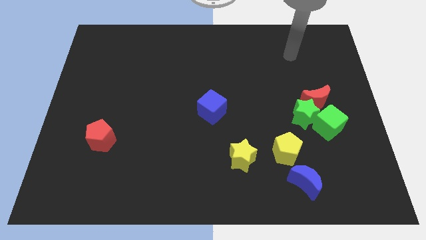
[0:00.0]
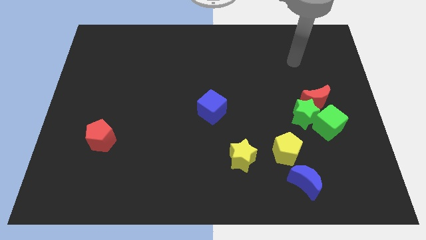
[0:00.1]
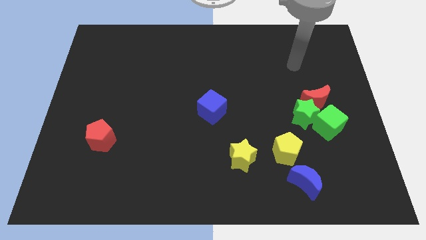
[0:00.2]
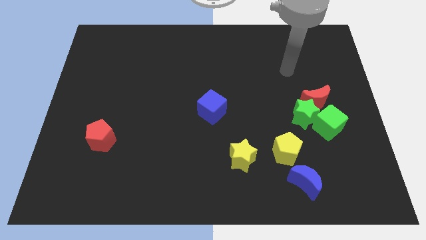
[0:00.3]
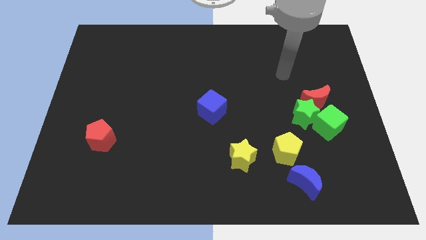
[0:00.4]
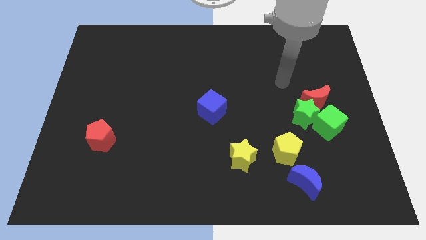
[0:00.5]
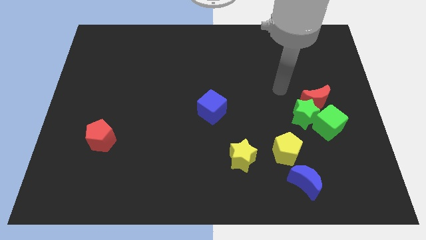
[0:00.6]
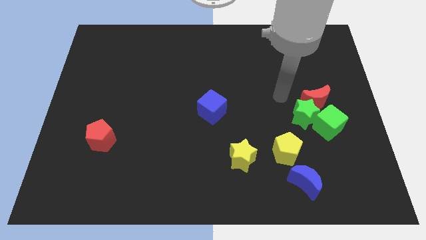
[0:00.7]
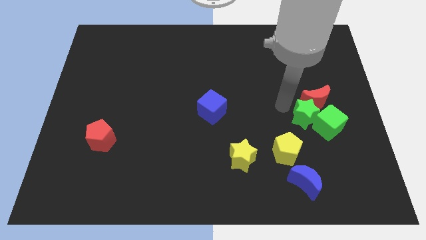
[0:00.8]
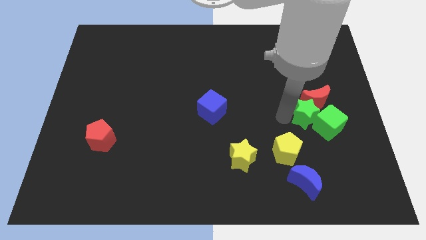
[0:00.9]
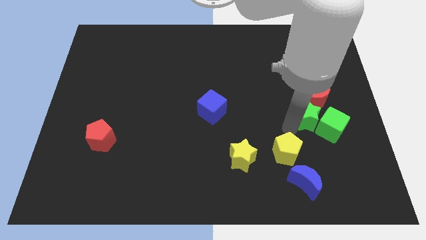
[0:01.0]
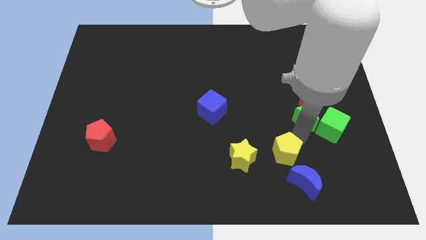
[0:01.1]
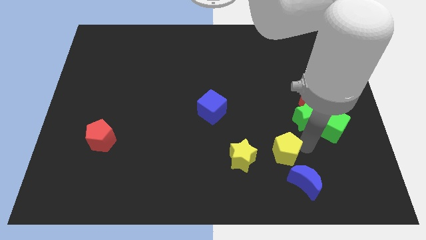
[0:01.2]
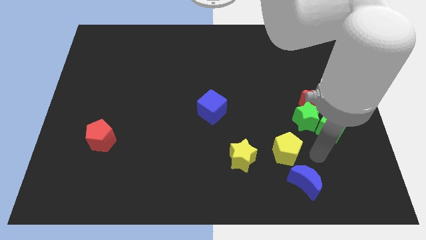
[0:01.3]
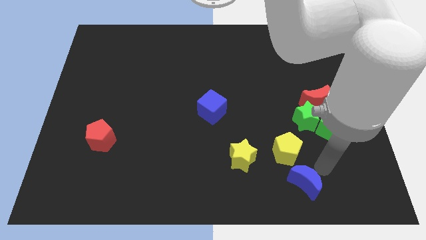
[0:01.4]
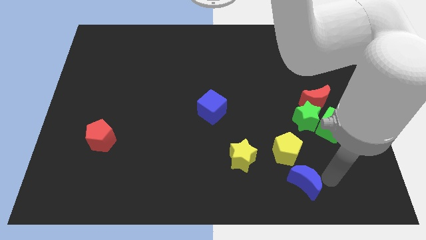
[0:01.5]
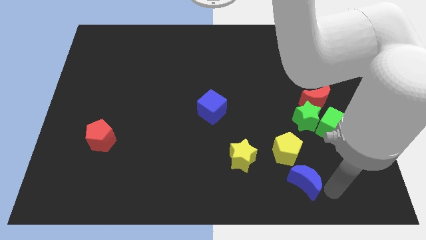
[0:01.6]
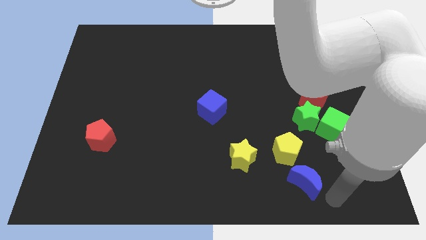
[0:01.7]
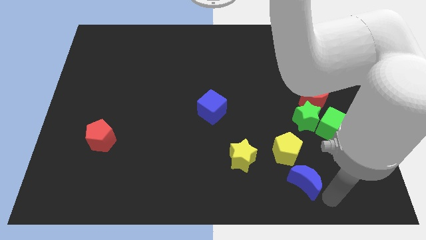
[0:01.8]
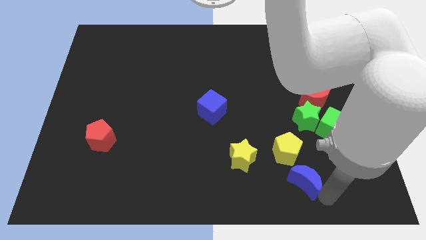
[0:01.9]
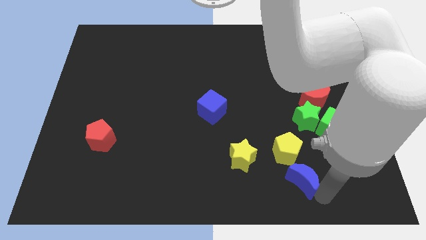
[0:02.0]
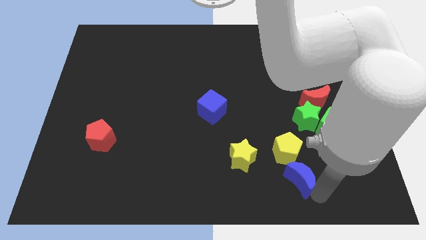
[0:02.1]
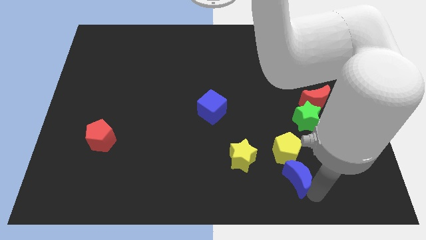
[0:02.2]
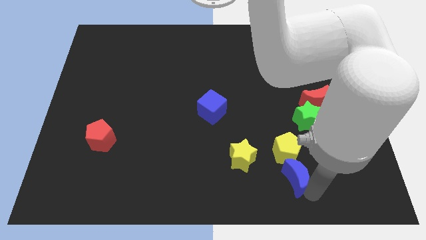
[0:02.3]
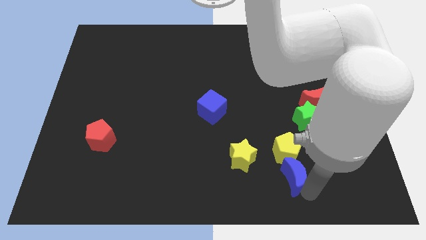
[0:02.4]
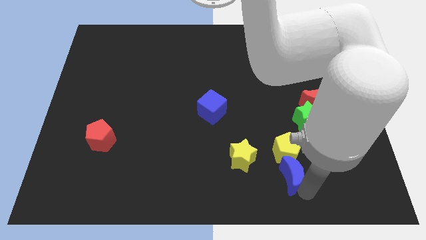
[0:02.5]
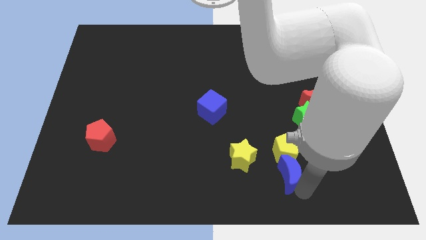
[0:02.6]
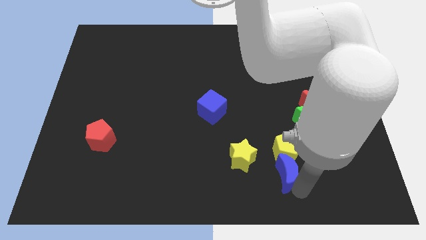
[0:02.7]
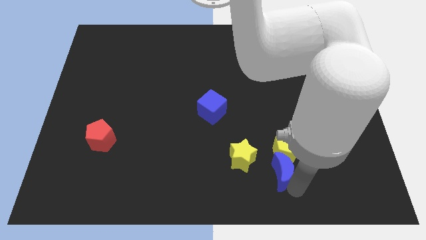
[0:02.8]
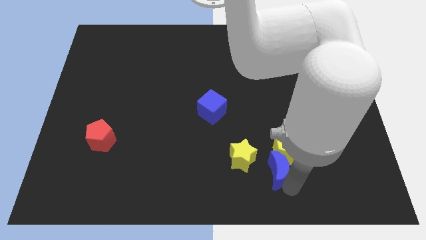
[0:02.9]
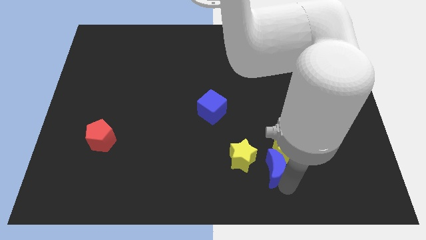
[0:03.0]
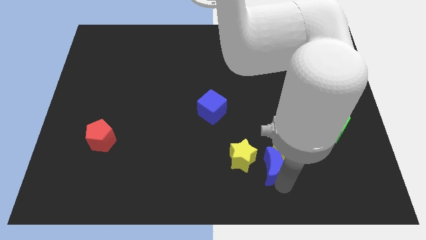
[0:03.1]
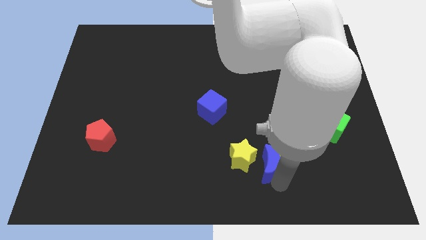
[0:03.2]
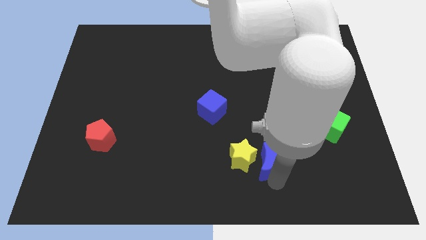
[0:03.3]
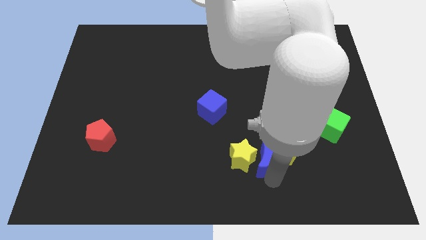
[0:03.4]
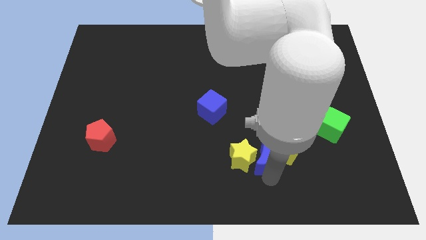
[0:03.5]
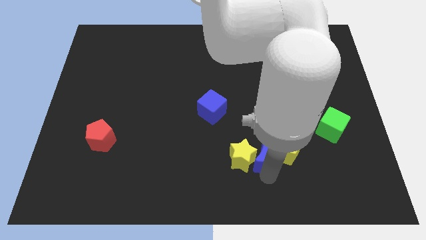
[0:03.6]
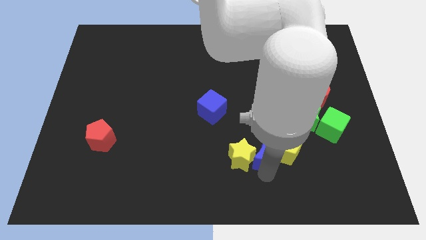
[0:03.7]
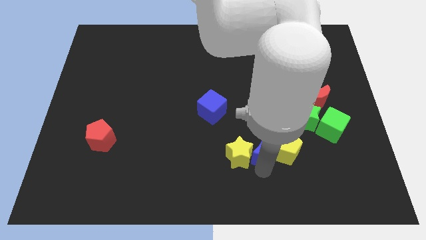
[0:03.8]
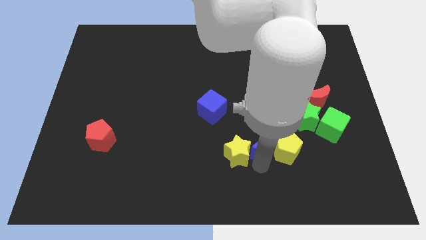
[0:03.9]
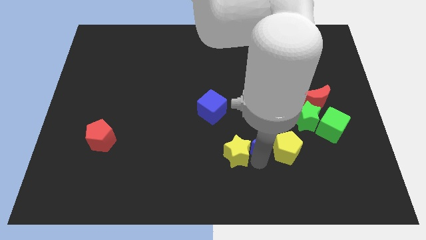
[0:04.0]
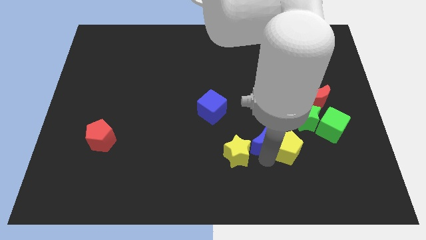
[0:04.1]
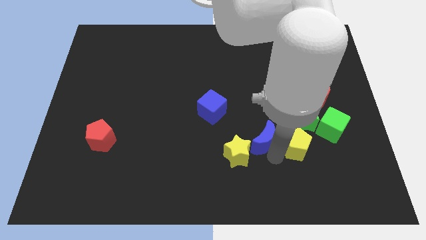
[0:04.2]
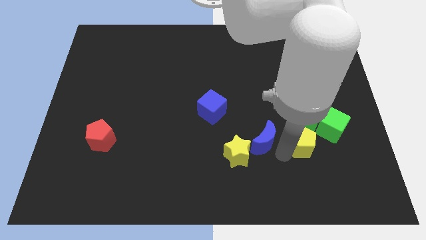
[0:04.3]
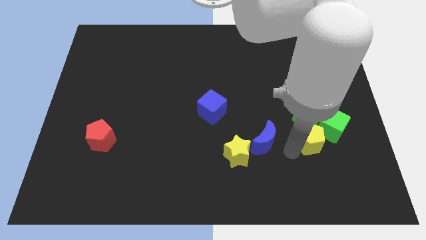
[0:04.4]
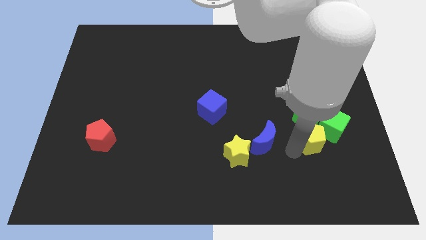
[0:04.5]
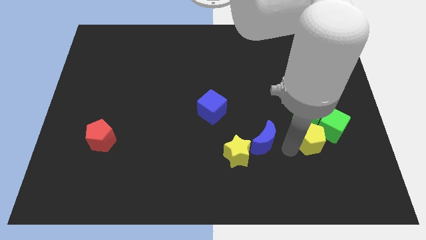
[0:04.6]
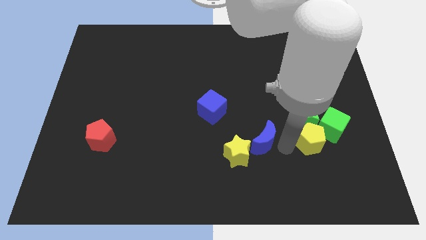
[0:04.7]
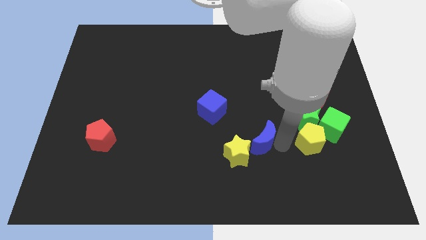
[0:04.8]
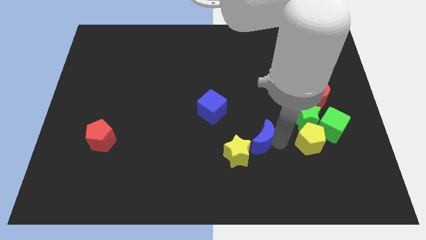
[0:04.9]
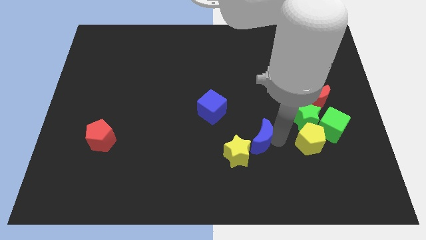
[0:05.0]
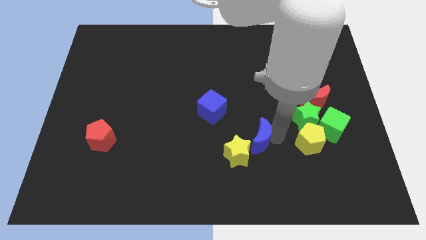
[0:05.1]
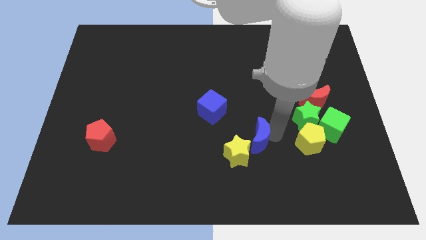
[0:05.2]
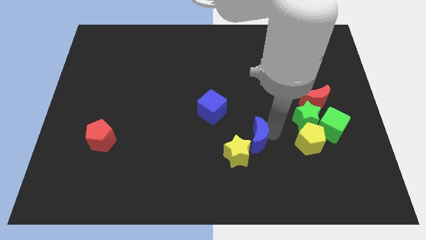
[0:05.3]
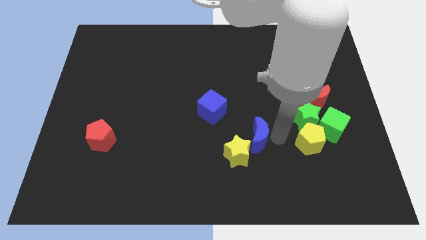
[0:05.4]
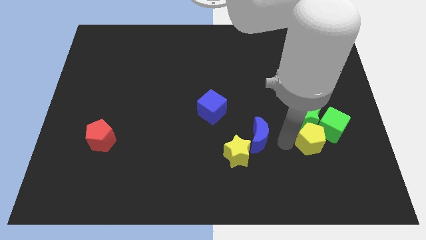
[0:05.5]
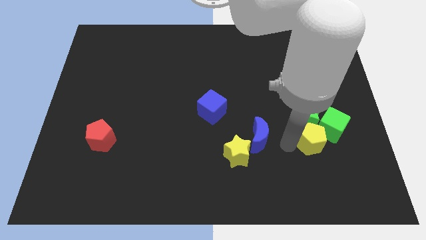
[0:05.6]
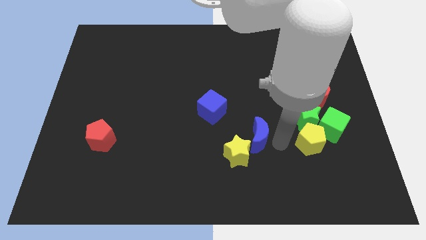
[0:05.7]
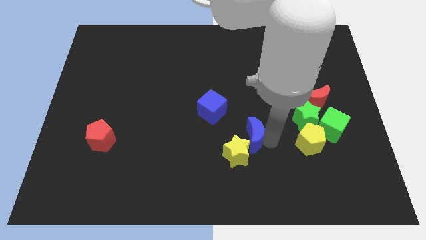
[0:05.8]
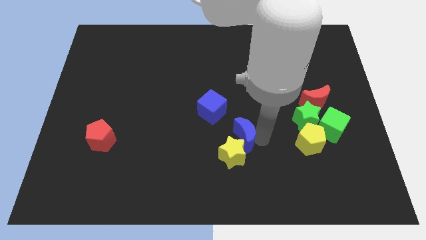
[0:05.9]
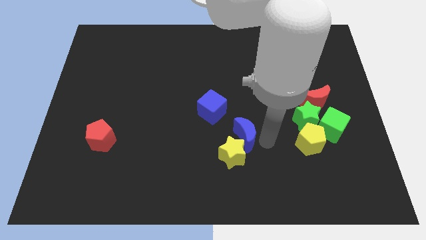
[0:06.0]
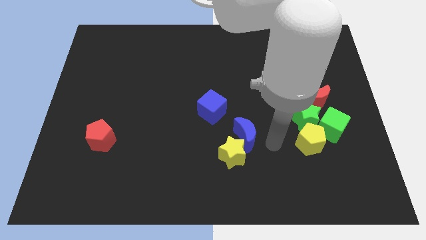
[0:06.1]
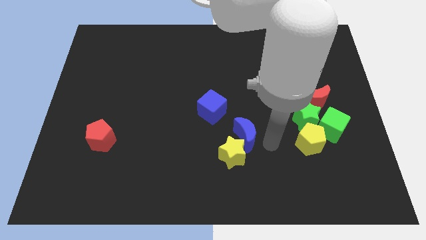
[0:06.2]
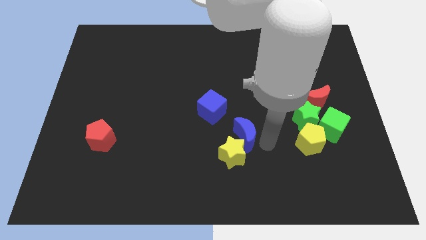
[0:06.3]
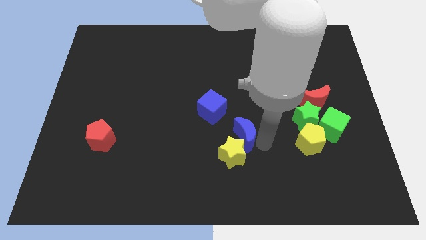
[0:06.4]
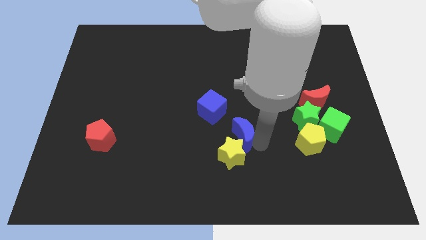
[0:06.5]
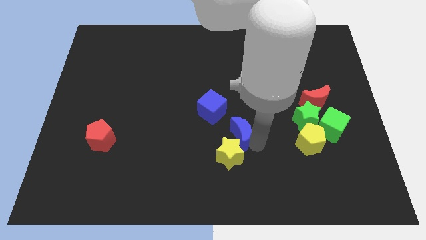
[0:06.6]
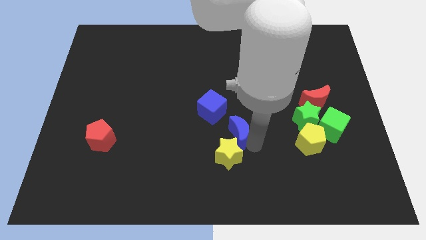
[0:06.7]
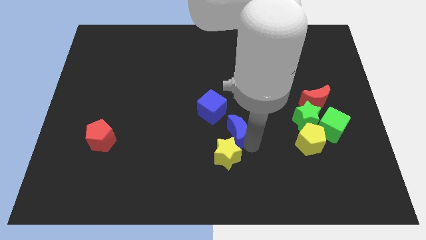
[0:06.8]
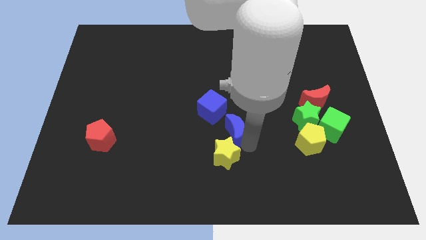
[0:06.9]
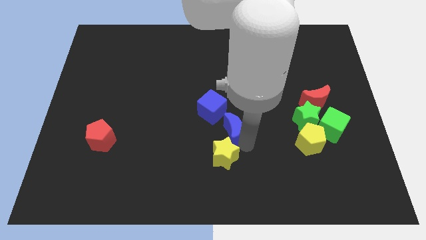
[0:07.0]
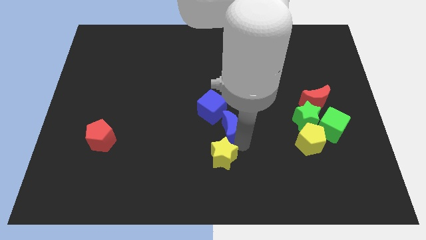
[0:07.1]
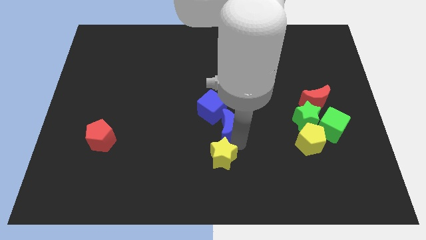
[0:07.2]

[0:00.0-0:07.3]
slide the blue moon up and then left

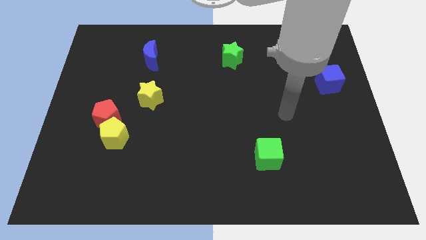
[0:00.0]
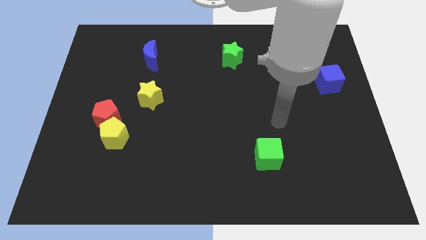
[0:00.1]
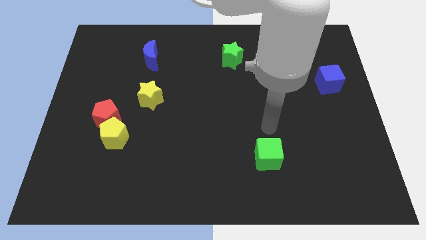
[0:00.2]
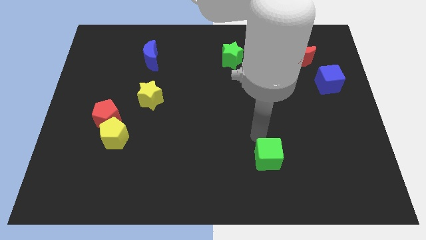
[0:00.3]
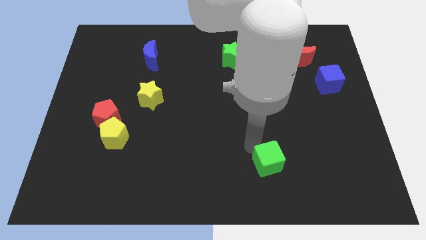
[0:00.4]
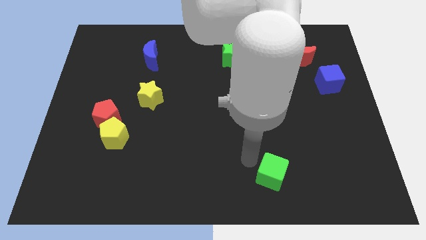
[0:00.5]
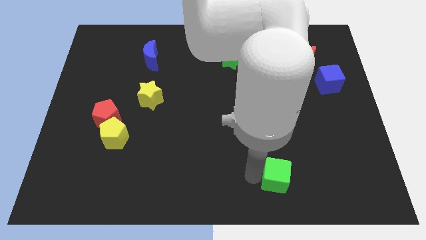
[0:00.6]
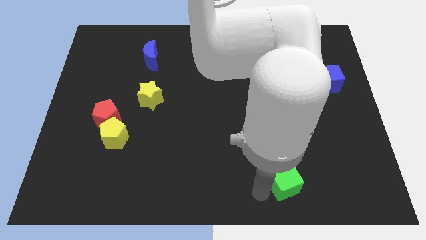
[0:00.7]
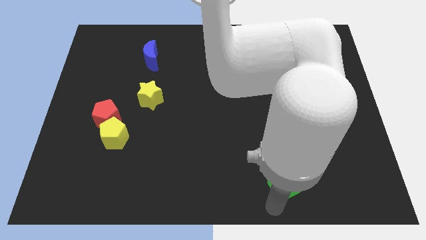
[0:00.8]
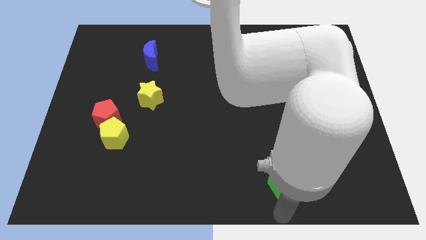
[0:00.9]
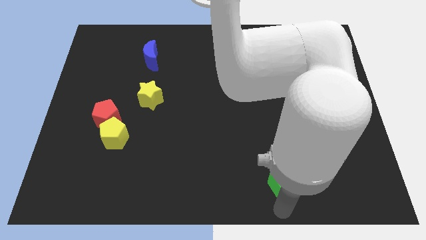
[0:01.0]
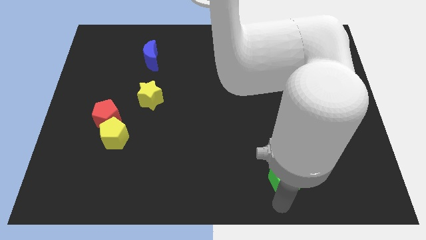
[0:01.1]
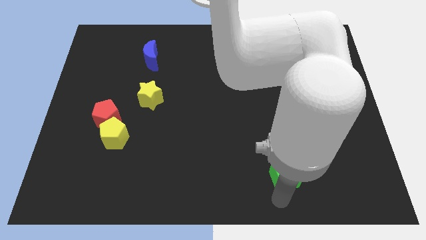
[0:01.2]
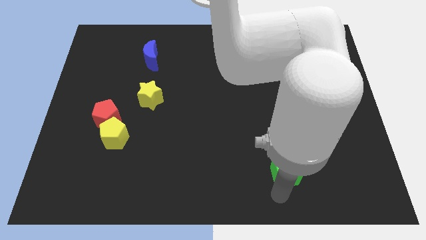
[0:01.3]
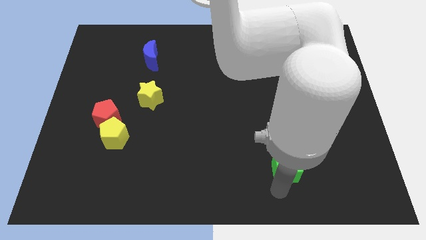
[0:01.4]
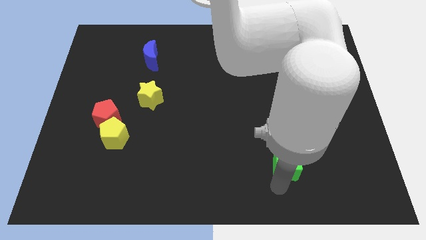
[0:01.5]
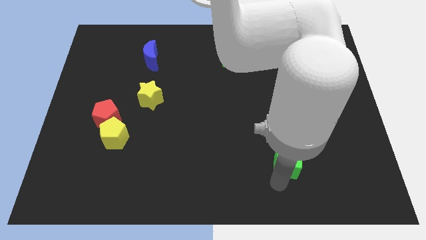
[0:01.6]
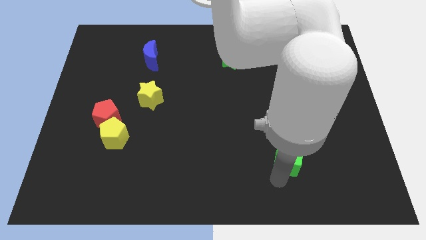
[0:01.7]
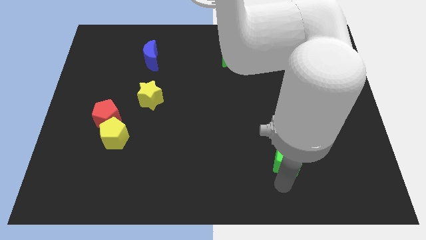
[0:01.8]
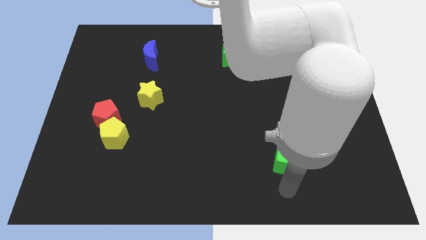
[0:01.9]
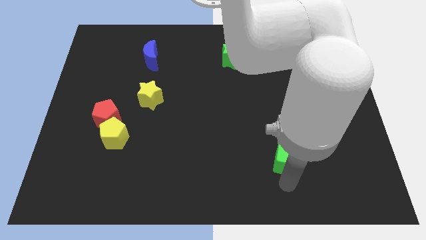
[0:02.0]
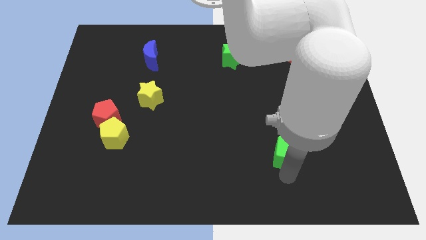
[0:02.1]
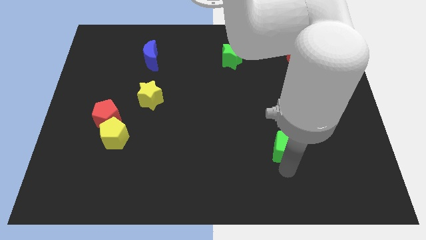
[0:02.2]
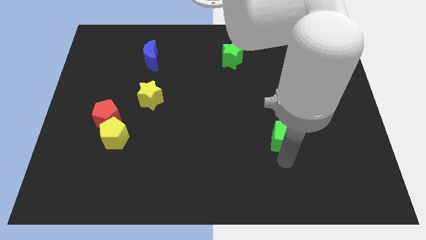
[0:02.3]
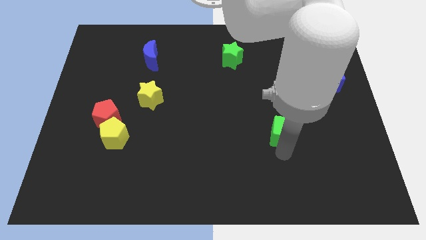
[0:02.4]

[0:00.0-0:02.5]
slightly slide the green cube up and to the right diagonally
